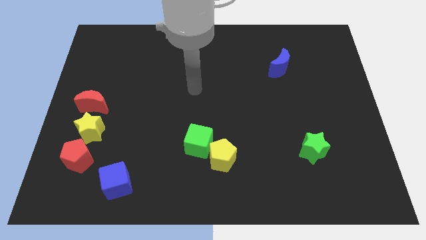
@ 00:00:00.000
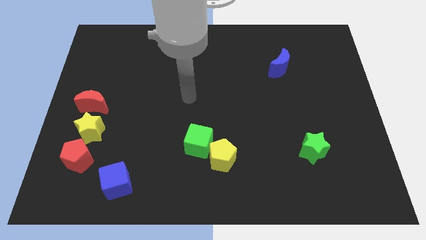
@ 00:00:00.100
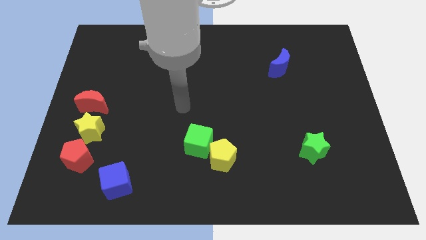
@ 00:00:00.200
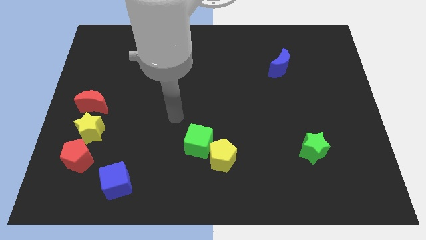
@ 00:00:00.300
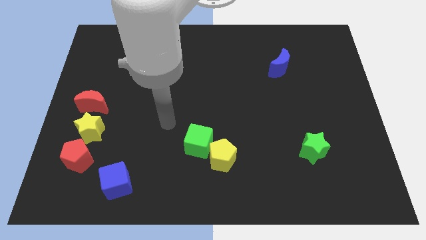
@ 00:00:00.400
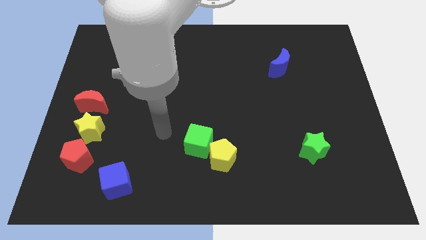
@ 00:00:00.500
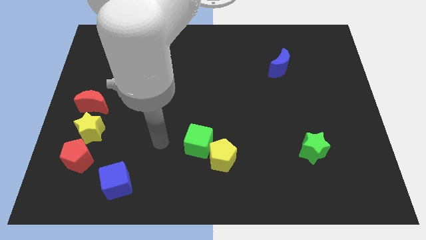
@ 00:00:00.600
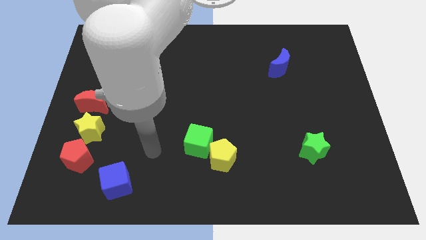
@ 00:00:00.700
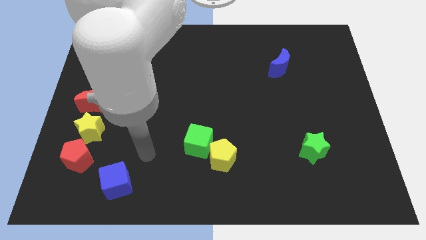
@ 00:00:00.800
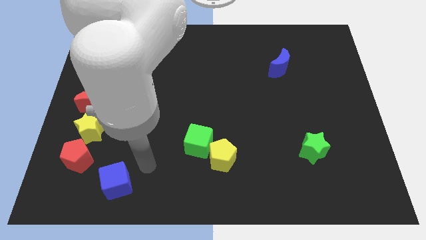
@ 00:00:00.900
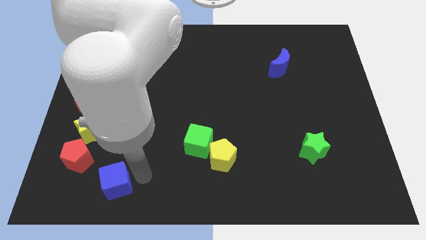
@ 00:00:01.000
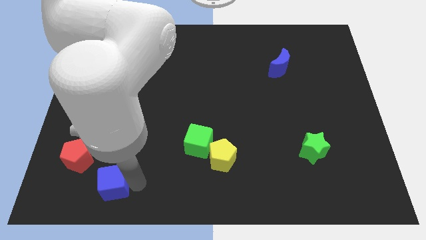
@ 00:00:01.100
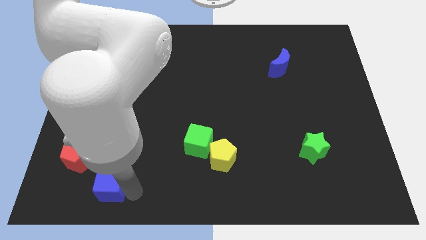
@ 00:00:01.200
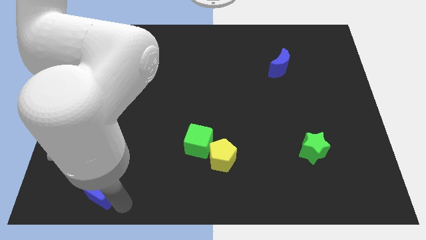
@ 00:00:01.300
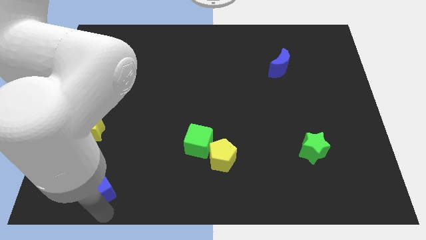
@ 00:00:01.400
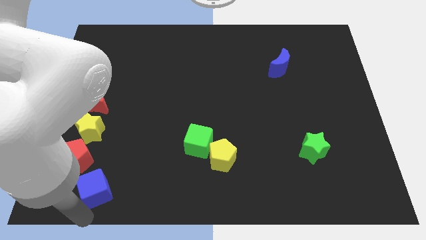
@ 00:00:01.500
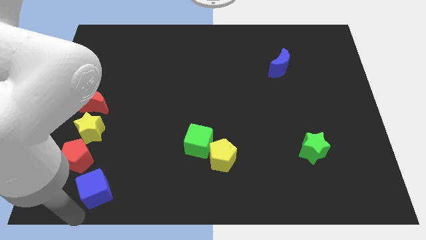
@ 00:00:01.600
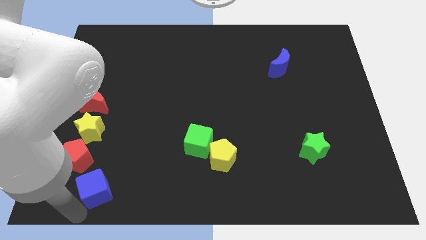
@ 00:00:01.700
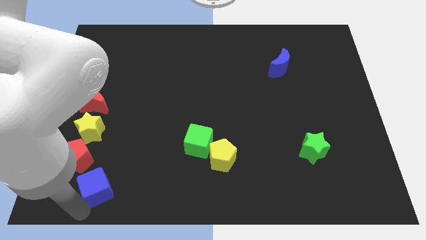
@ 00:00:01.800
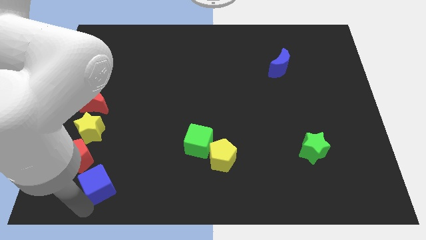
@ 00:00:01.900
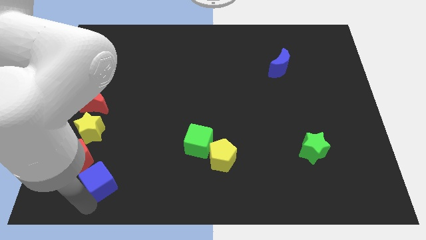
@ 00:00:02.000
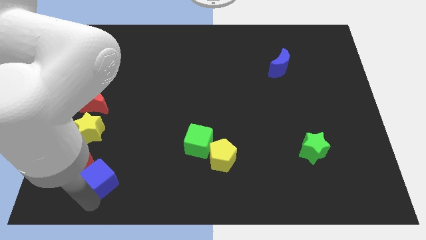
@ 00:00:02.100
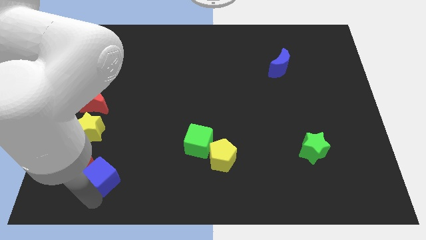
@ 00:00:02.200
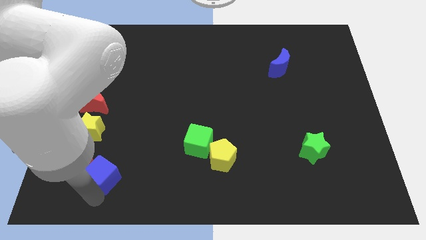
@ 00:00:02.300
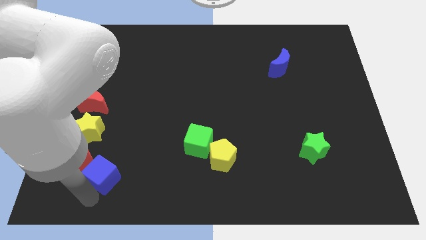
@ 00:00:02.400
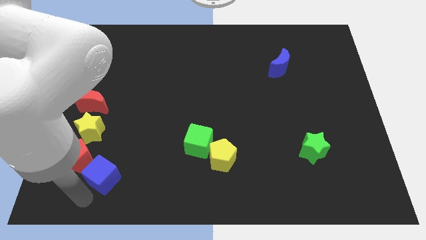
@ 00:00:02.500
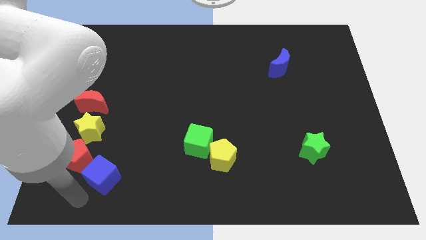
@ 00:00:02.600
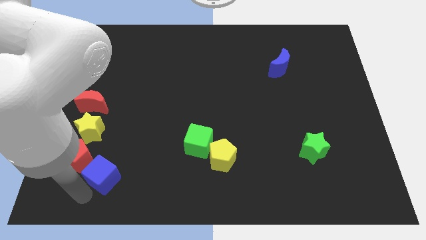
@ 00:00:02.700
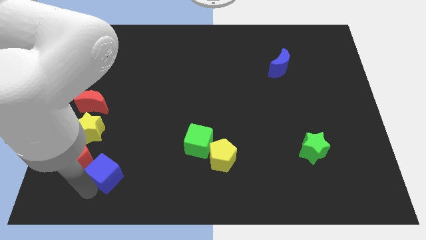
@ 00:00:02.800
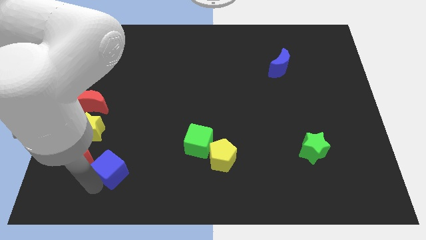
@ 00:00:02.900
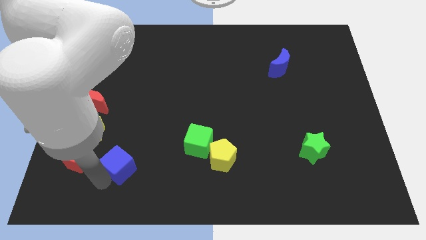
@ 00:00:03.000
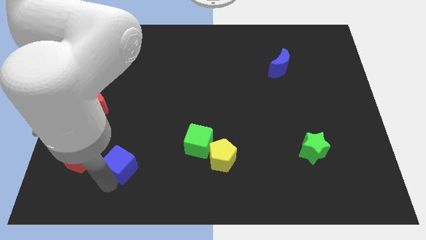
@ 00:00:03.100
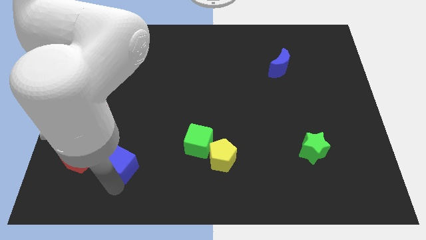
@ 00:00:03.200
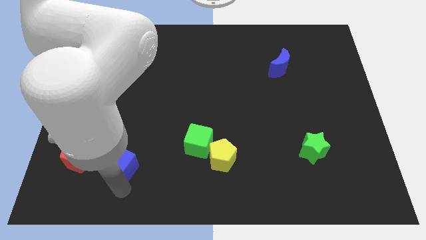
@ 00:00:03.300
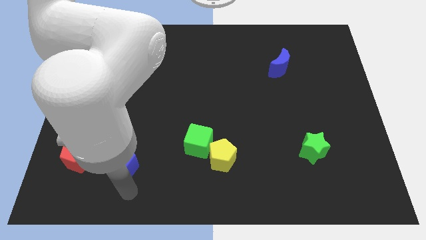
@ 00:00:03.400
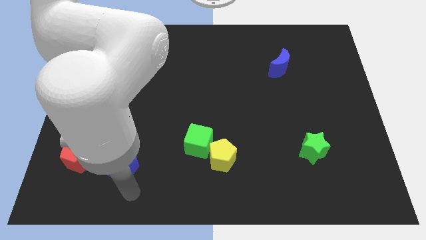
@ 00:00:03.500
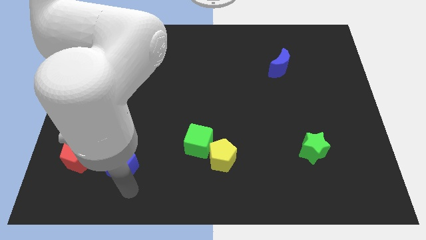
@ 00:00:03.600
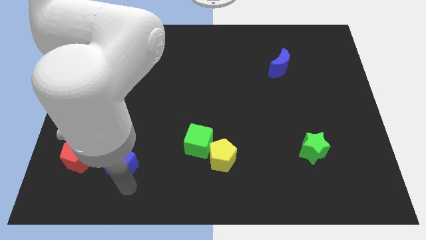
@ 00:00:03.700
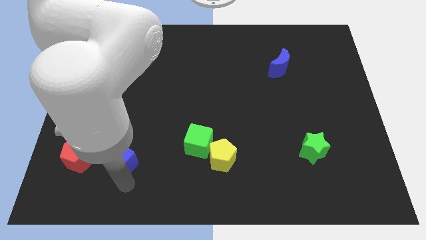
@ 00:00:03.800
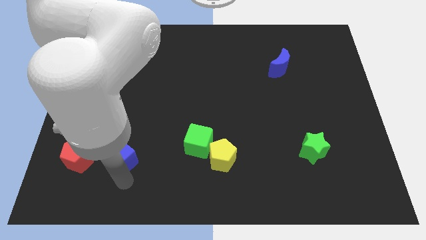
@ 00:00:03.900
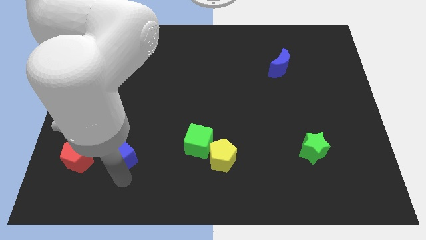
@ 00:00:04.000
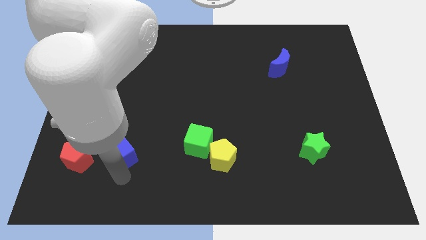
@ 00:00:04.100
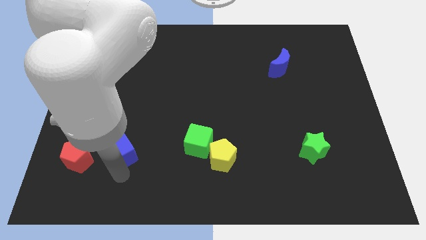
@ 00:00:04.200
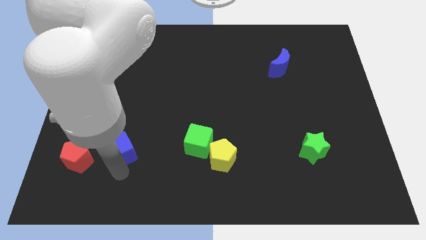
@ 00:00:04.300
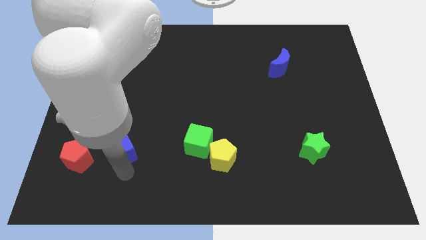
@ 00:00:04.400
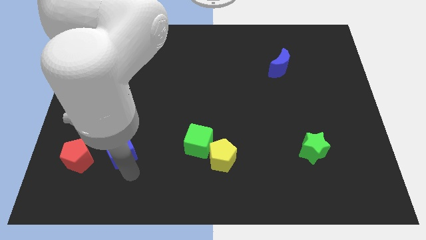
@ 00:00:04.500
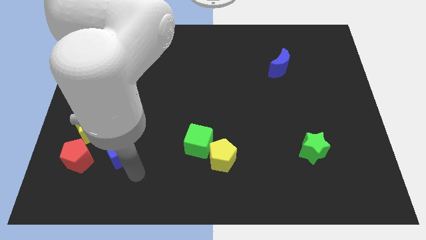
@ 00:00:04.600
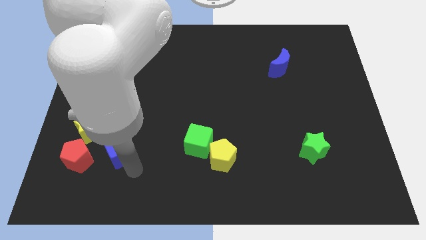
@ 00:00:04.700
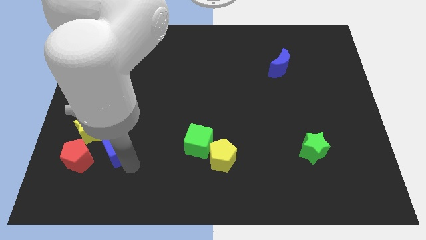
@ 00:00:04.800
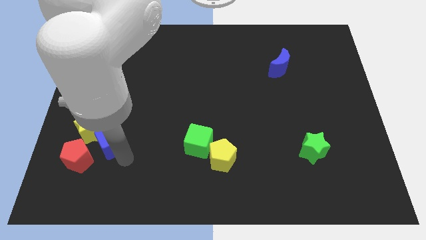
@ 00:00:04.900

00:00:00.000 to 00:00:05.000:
move the blue cube to the bottom right side of the red moon

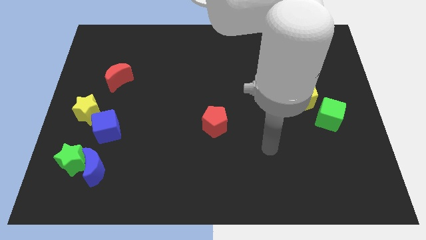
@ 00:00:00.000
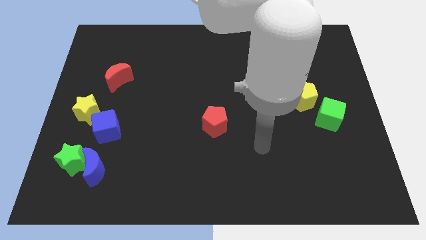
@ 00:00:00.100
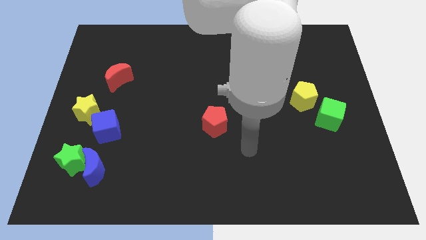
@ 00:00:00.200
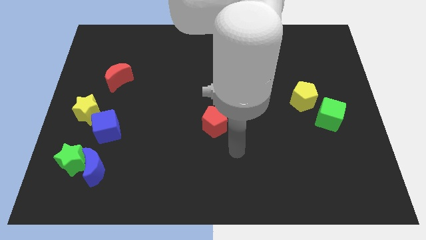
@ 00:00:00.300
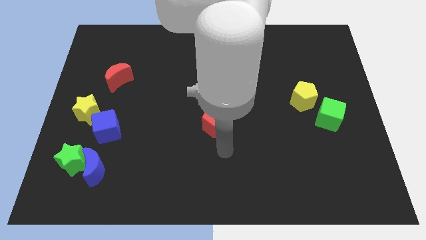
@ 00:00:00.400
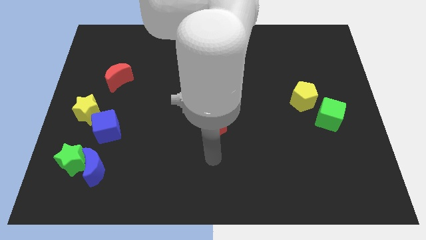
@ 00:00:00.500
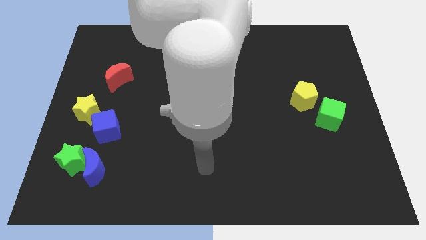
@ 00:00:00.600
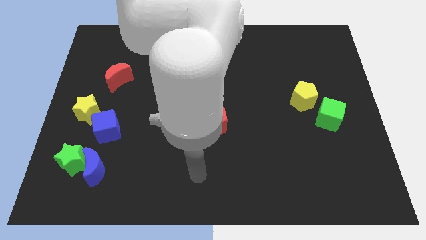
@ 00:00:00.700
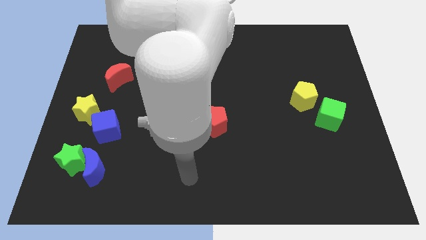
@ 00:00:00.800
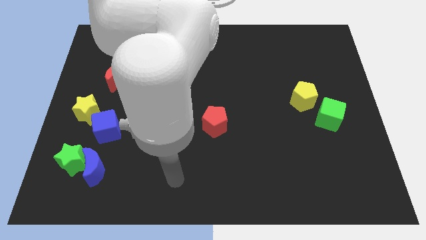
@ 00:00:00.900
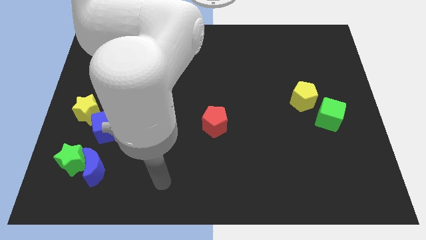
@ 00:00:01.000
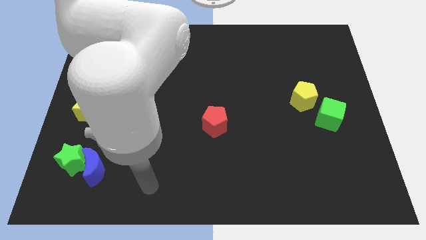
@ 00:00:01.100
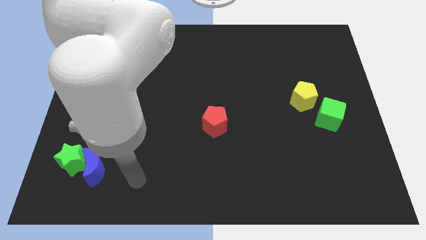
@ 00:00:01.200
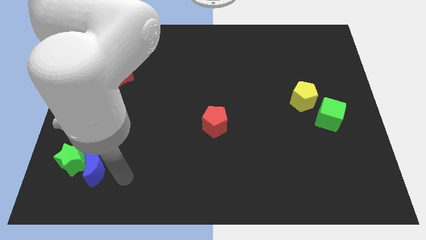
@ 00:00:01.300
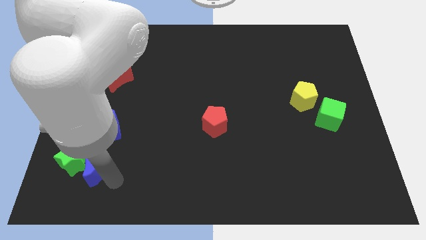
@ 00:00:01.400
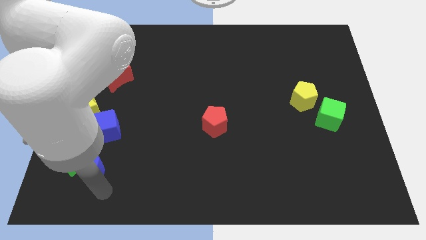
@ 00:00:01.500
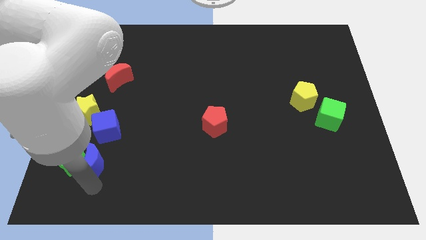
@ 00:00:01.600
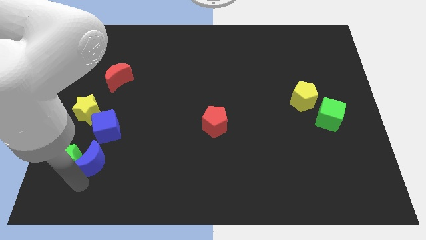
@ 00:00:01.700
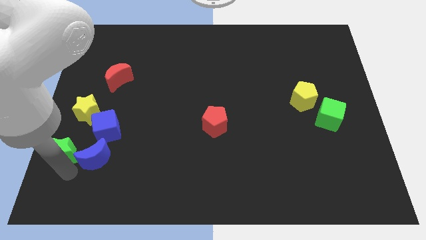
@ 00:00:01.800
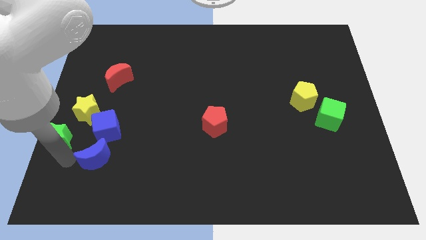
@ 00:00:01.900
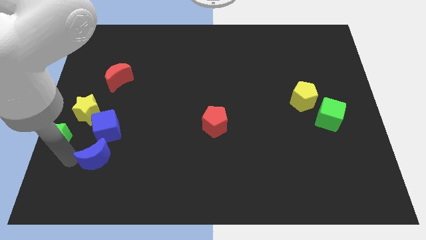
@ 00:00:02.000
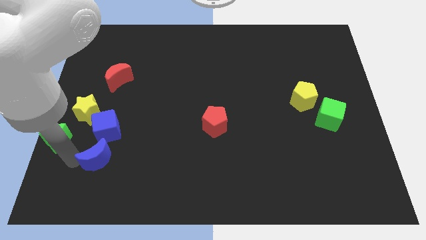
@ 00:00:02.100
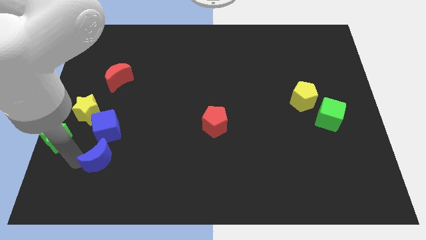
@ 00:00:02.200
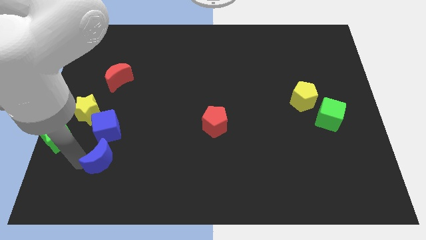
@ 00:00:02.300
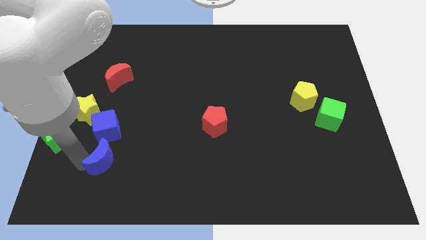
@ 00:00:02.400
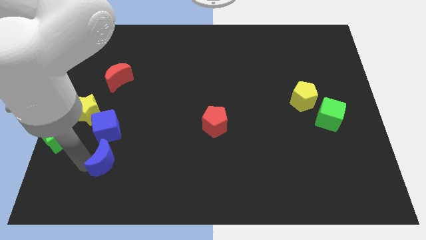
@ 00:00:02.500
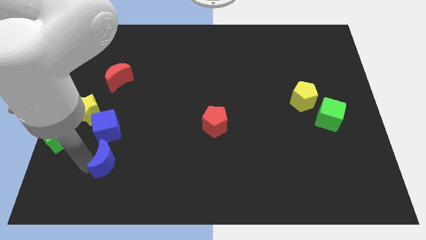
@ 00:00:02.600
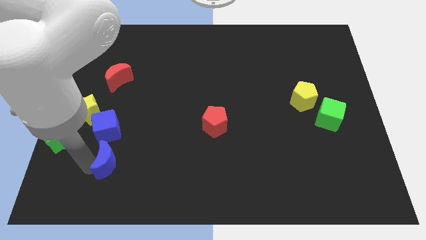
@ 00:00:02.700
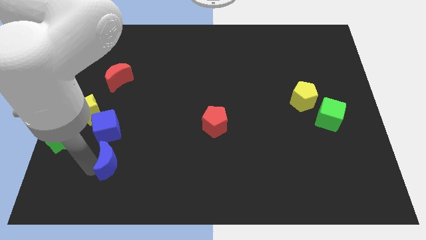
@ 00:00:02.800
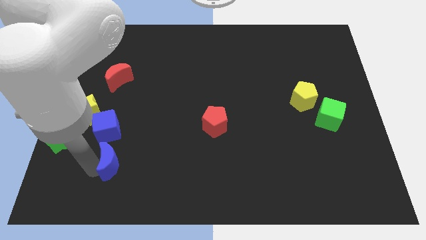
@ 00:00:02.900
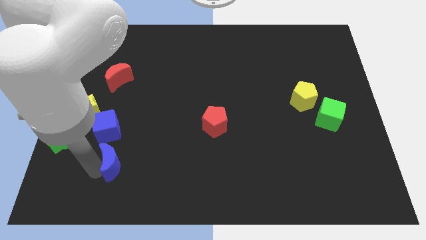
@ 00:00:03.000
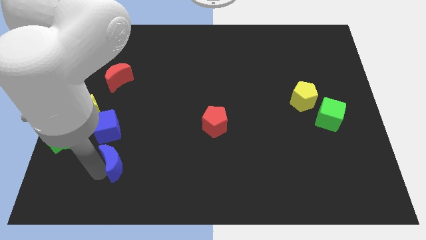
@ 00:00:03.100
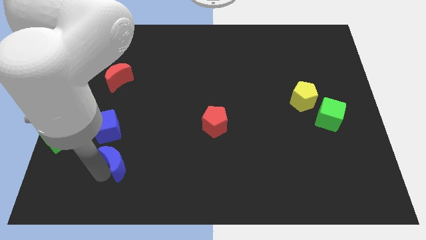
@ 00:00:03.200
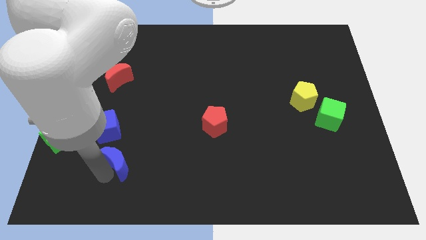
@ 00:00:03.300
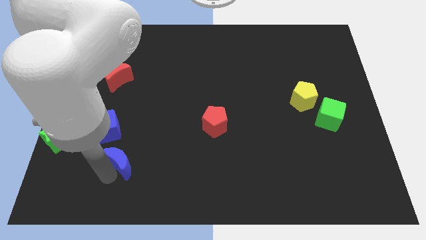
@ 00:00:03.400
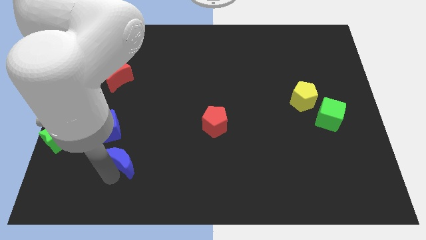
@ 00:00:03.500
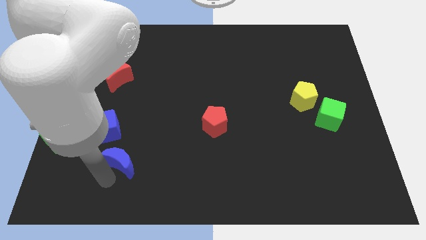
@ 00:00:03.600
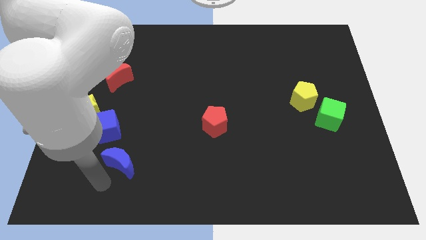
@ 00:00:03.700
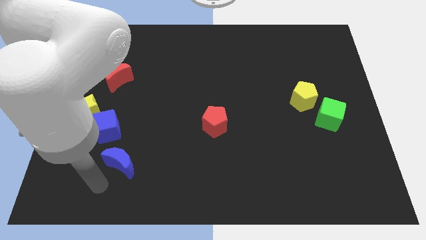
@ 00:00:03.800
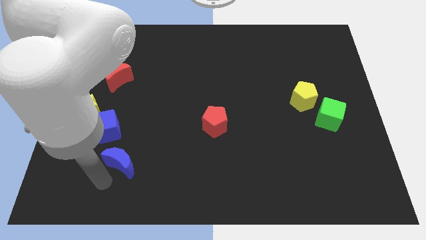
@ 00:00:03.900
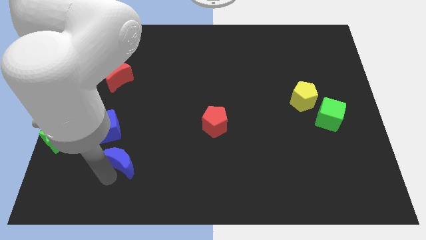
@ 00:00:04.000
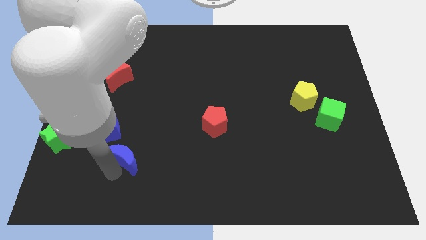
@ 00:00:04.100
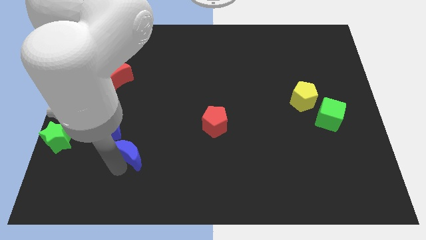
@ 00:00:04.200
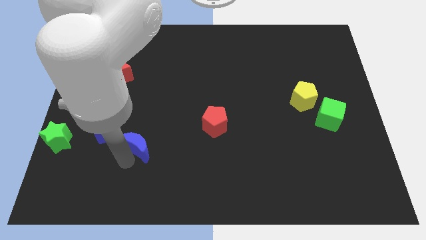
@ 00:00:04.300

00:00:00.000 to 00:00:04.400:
put the blue moon to the right side of the blue cube
